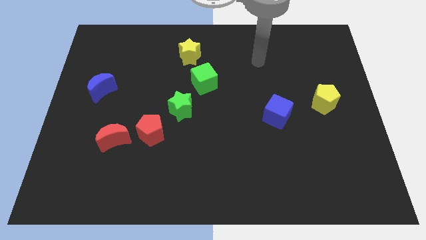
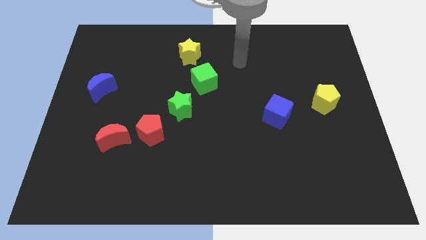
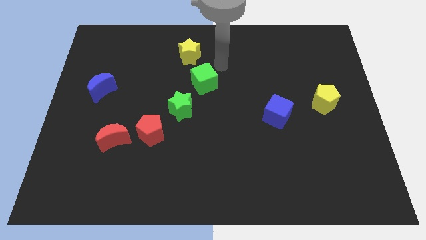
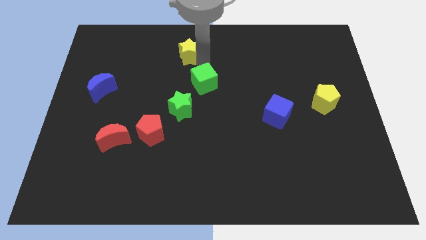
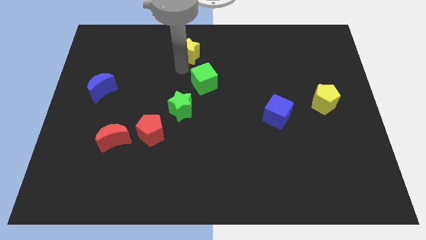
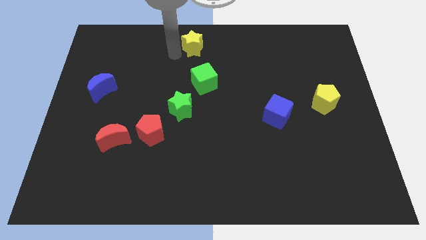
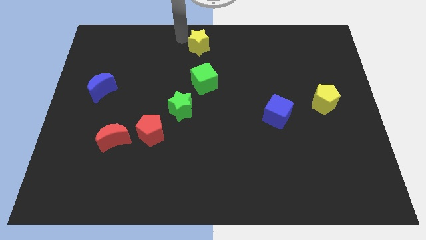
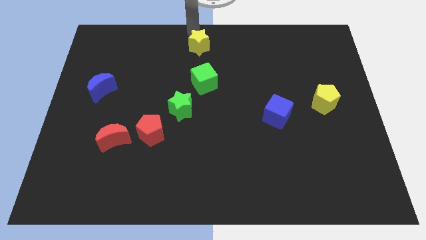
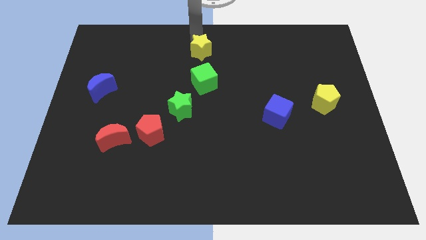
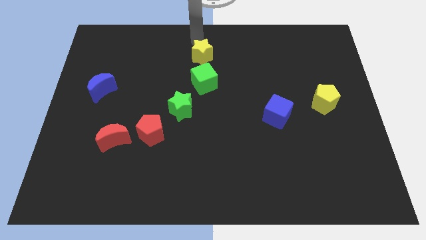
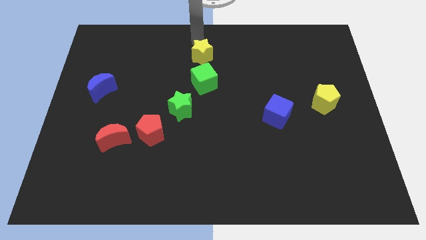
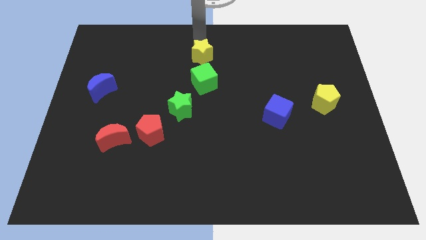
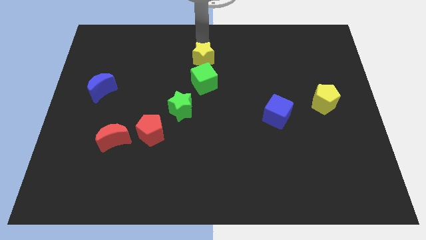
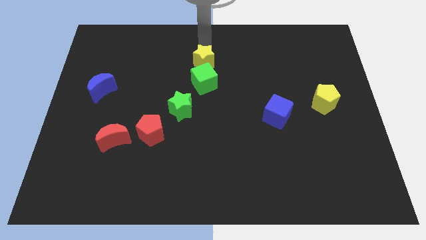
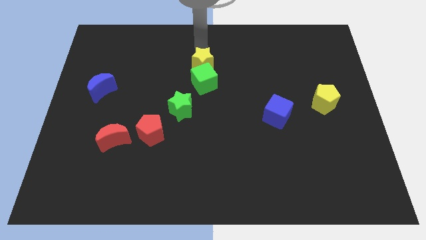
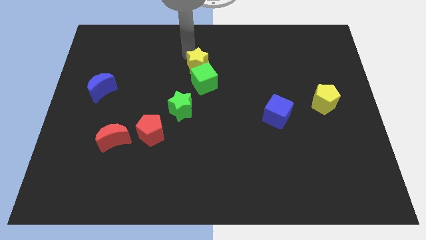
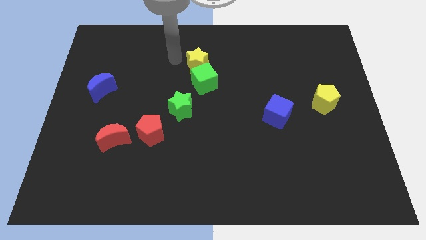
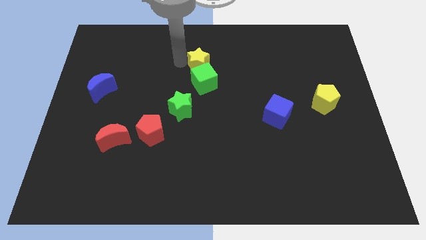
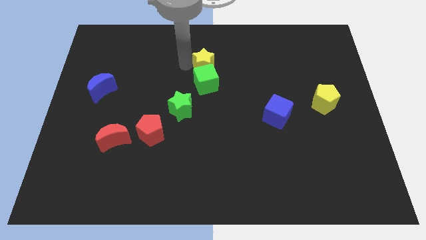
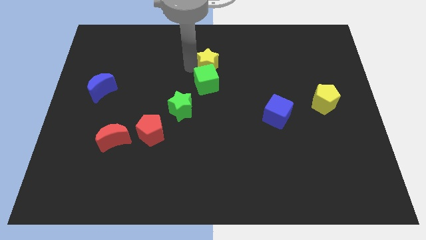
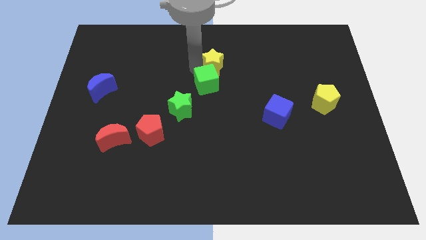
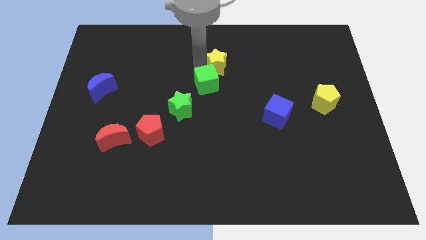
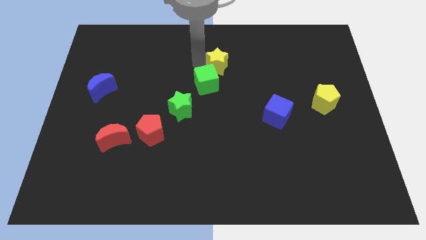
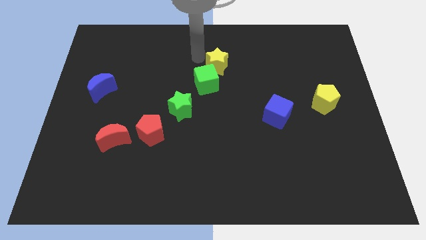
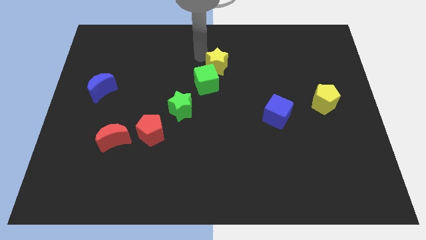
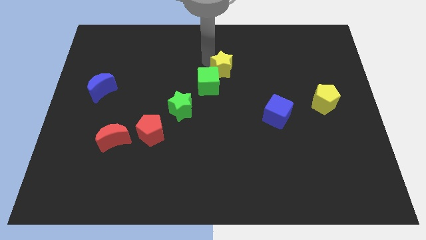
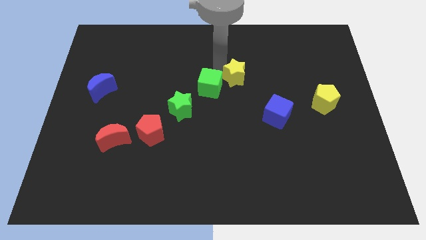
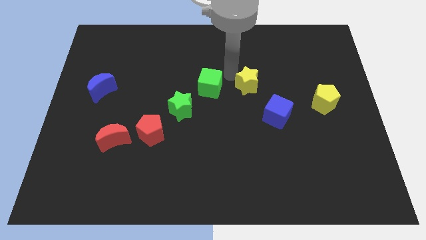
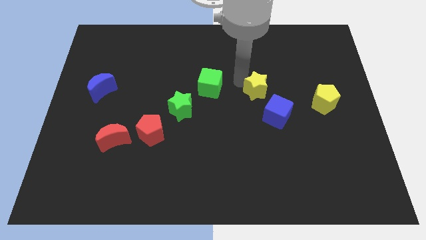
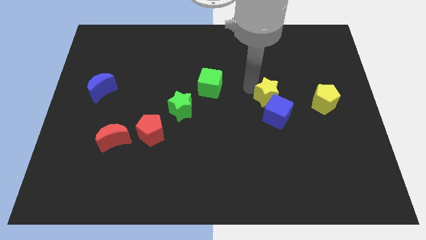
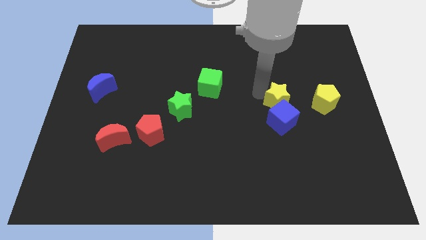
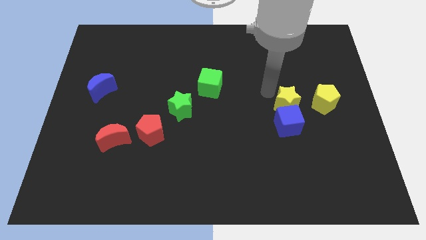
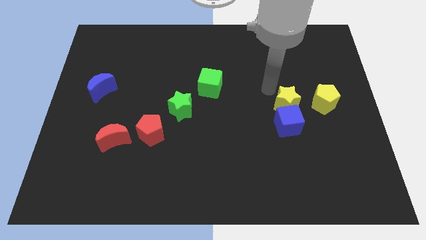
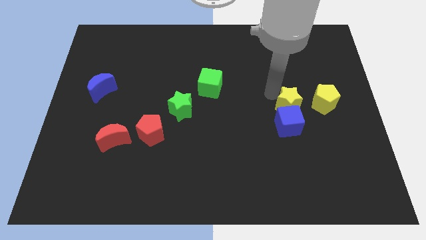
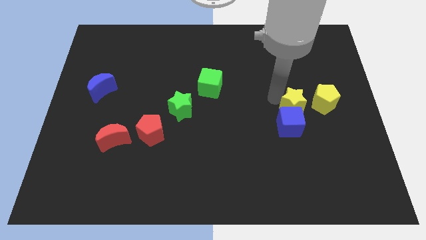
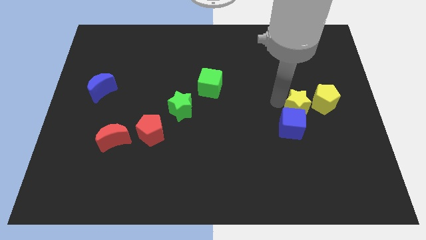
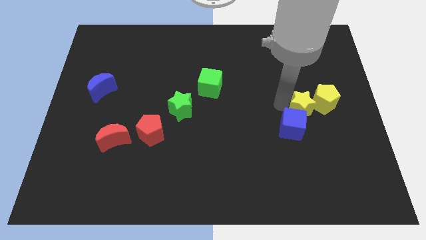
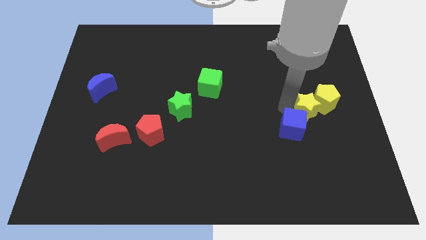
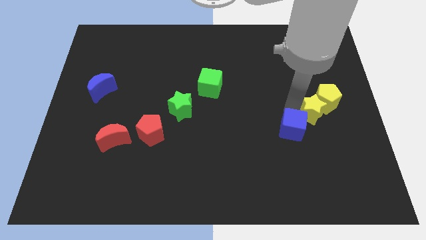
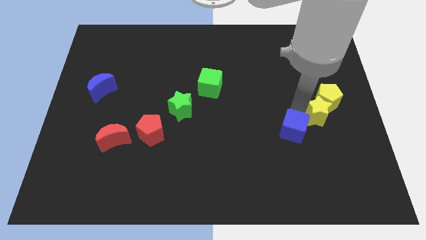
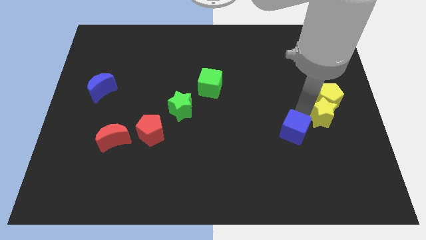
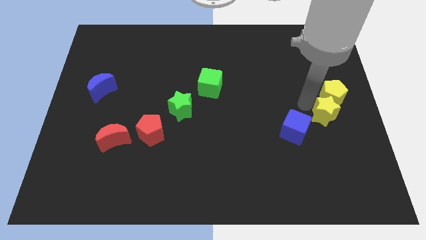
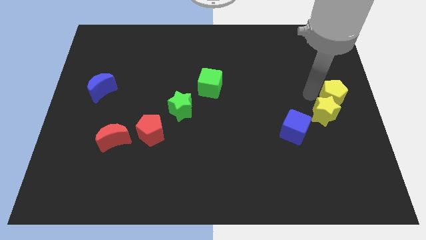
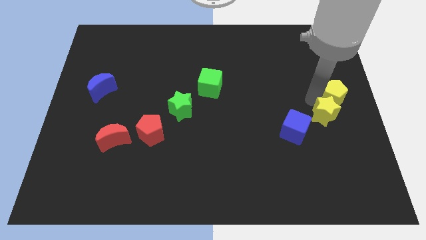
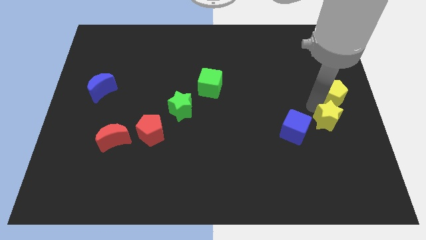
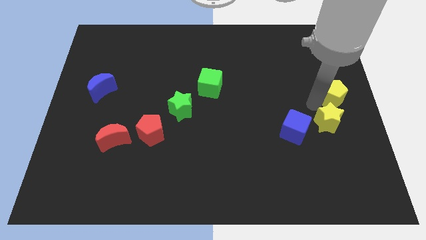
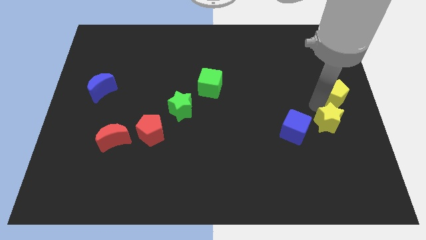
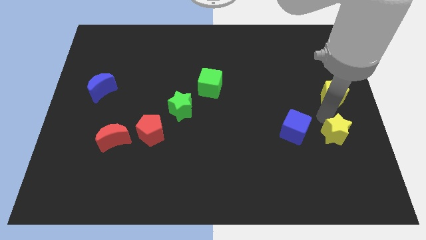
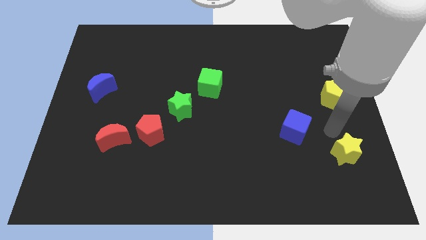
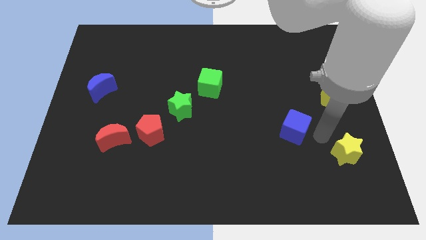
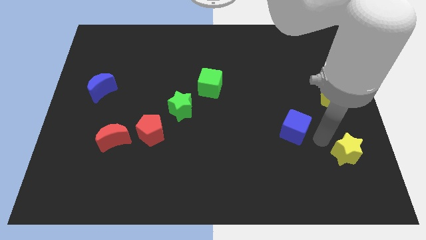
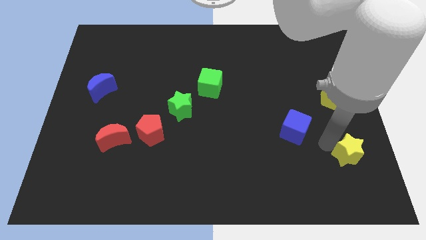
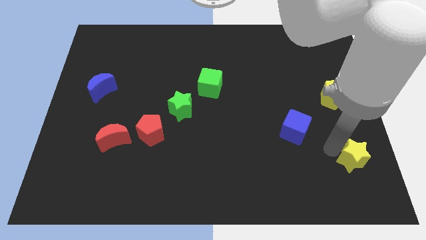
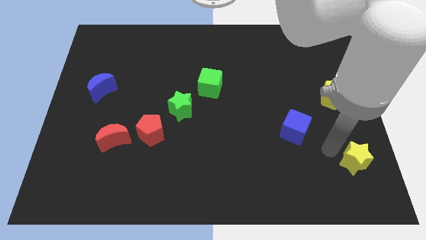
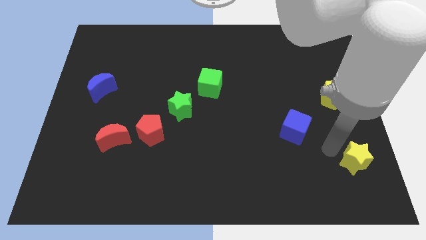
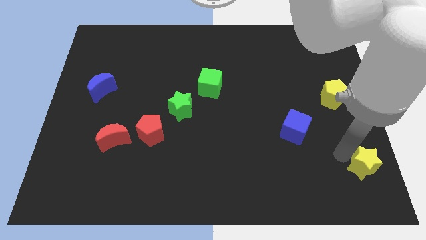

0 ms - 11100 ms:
move the yellow star to the bottom right

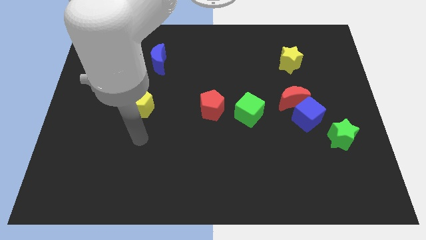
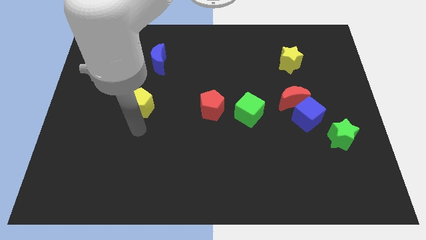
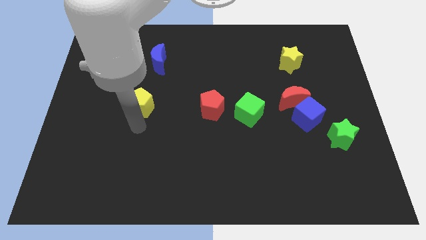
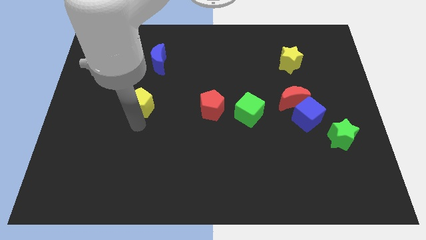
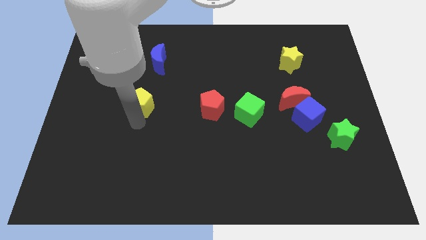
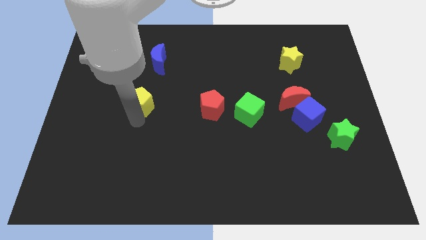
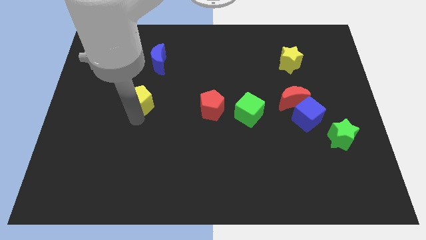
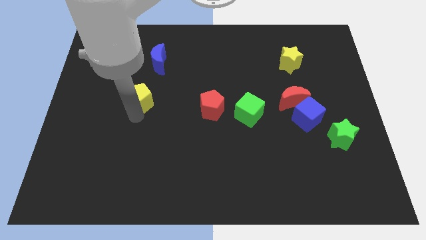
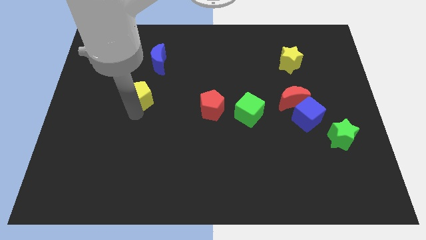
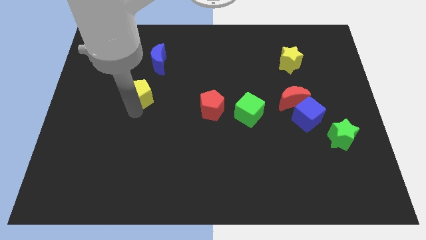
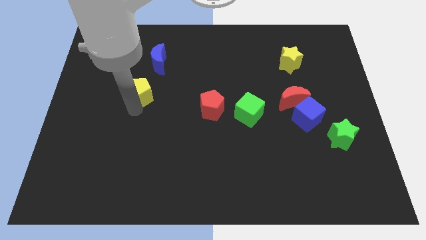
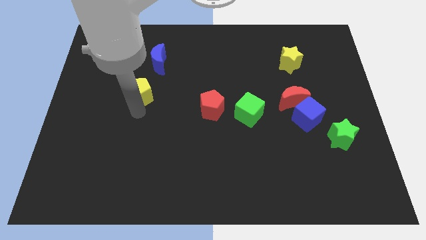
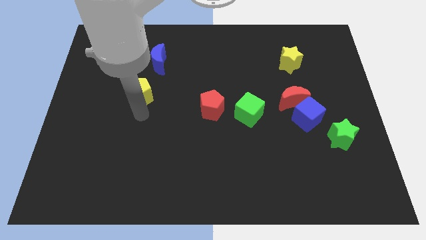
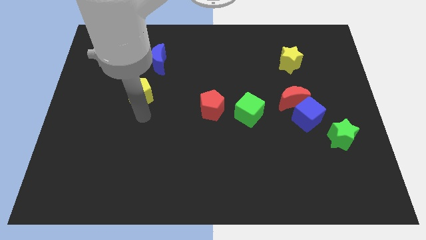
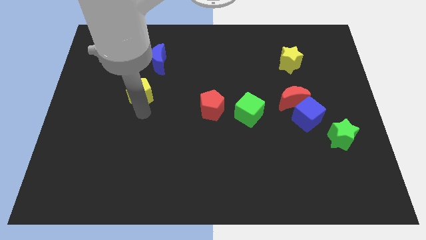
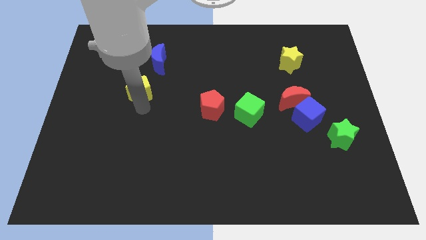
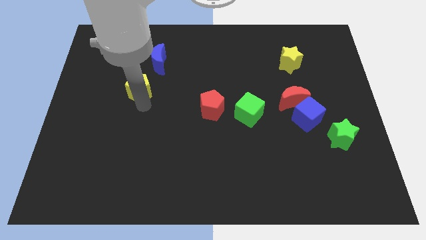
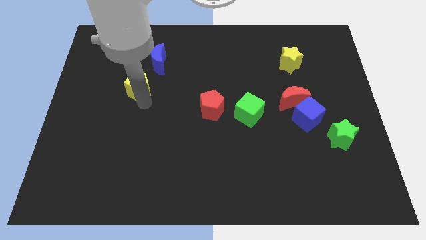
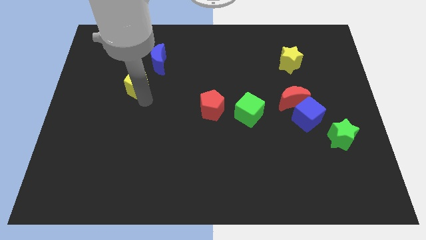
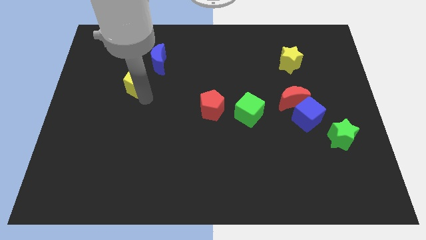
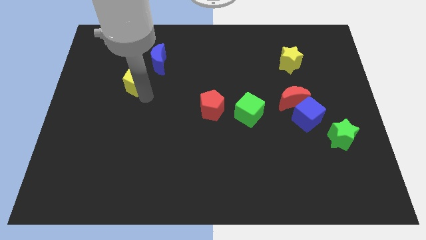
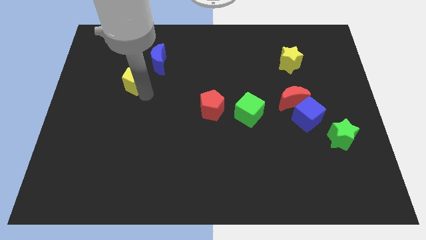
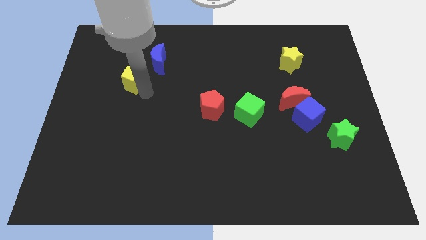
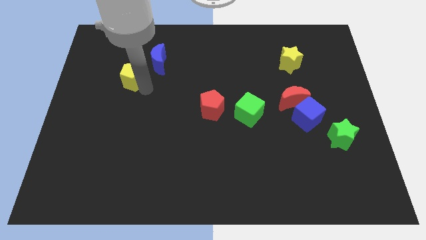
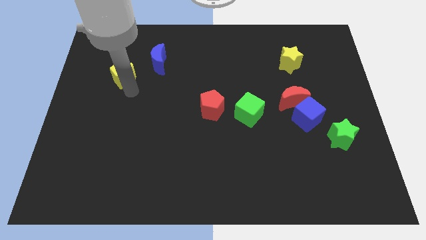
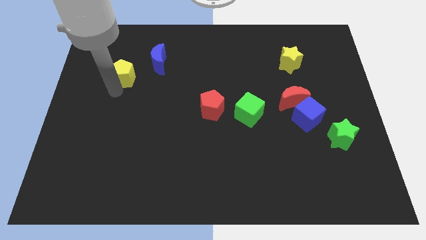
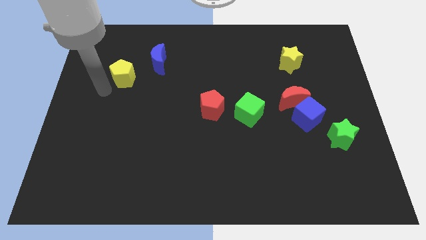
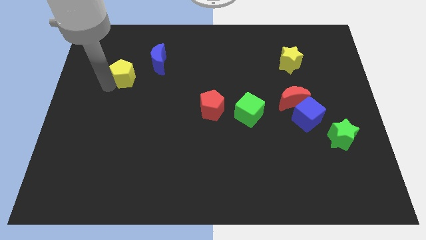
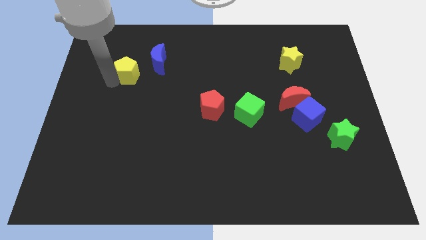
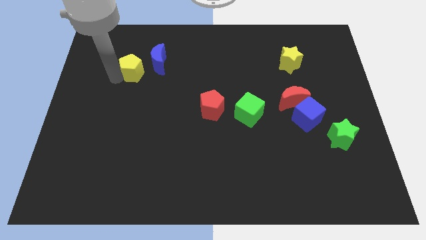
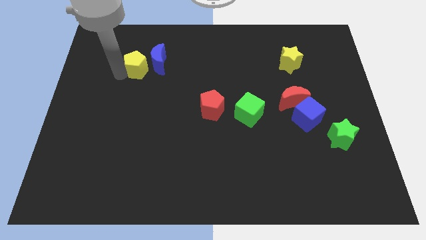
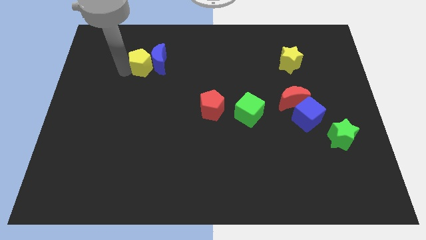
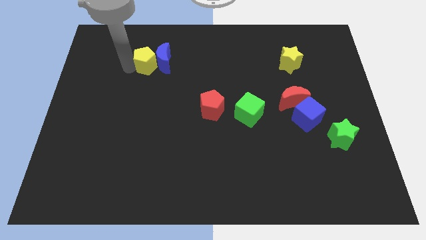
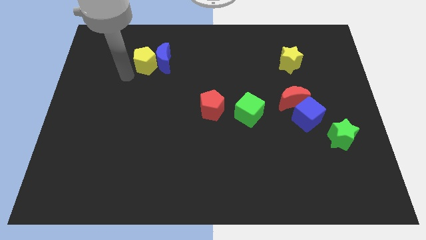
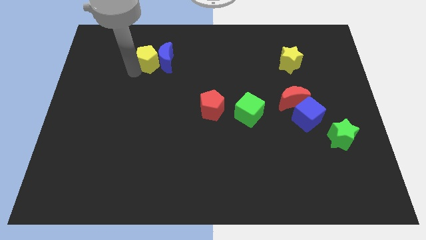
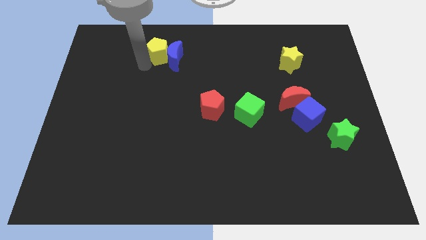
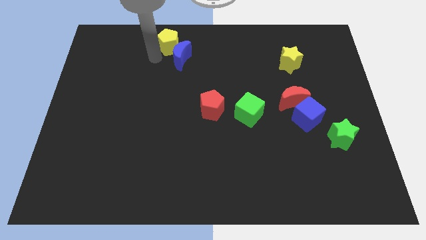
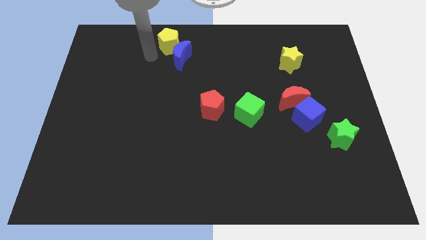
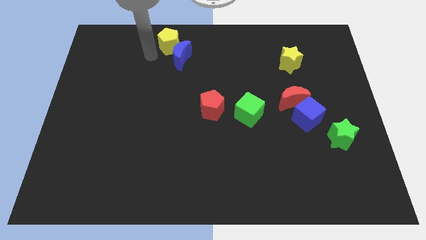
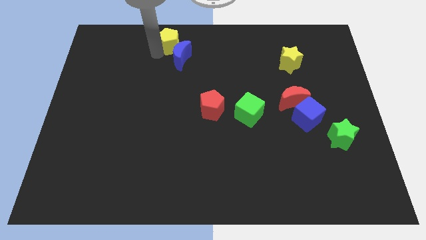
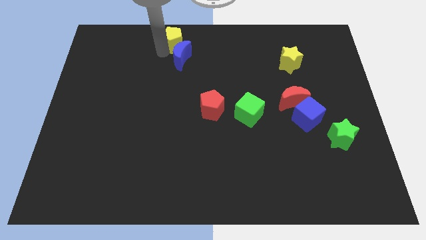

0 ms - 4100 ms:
put the yellow pentagon to the top side
